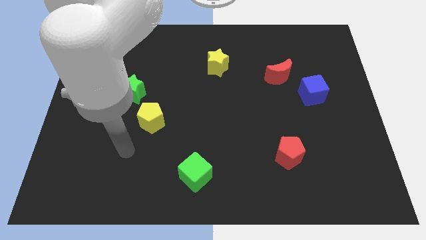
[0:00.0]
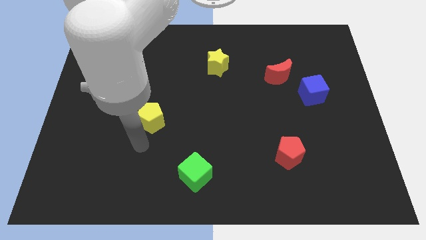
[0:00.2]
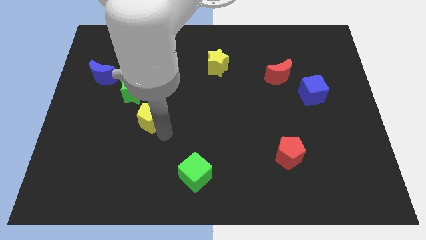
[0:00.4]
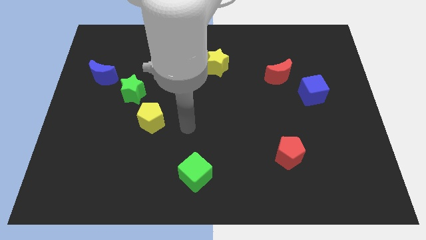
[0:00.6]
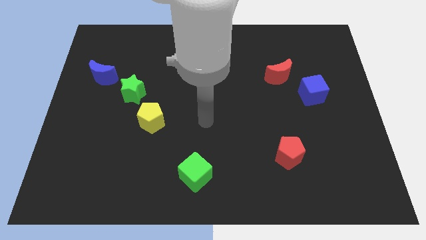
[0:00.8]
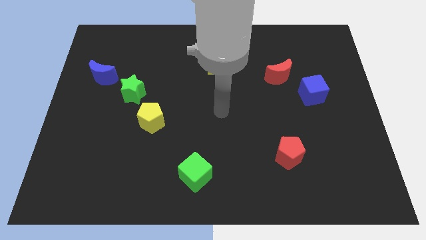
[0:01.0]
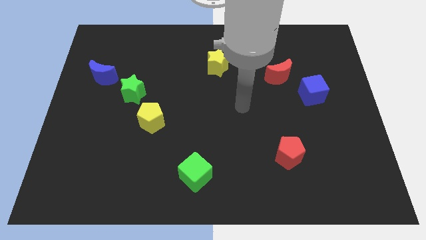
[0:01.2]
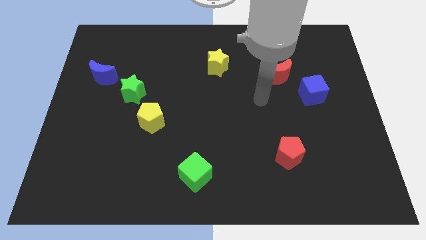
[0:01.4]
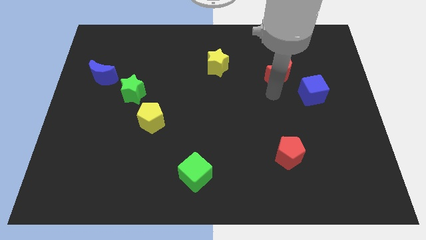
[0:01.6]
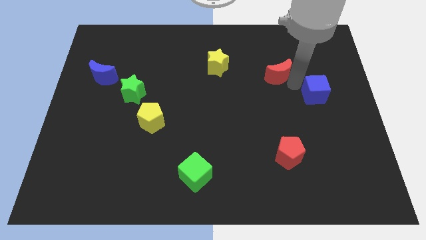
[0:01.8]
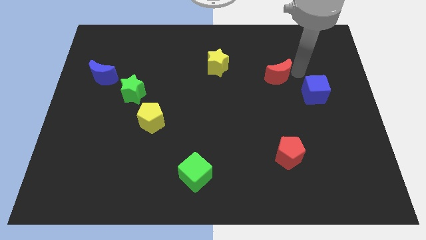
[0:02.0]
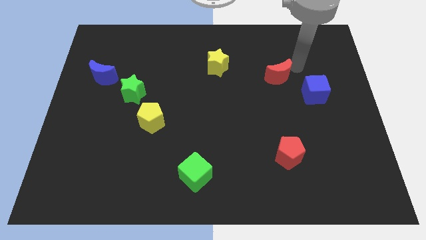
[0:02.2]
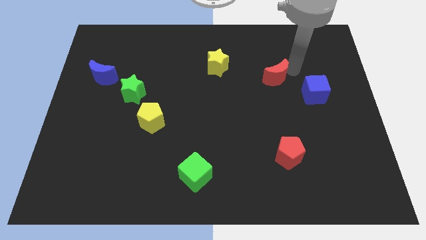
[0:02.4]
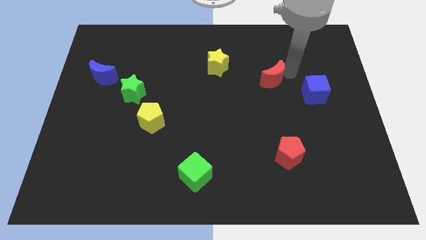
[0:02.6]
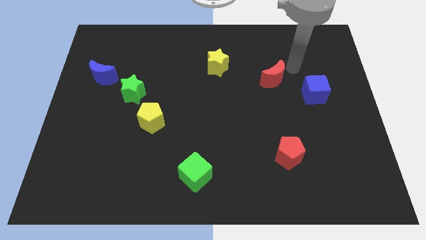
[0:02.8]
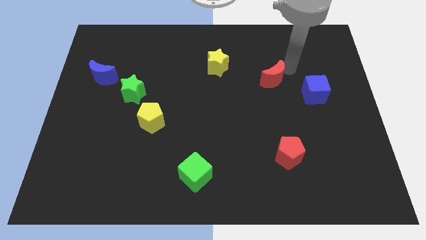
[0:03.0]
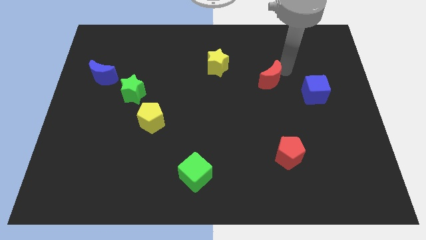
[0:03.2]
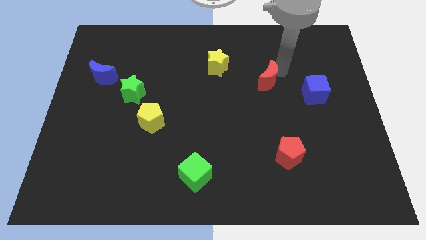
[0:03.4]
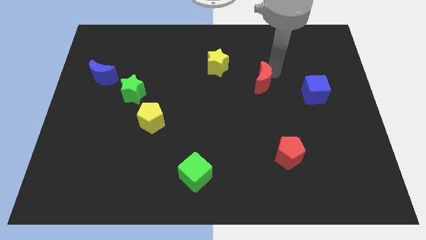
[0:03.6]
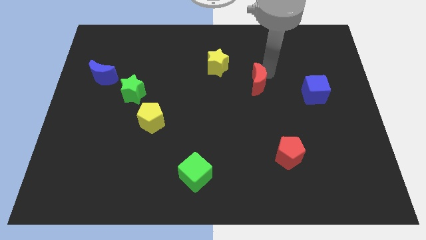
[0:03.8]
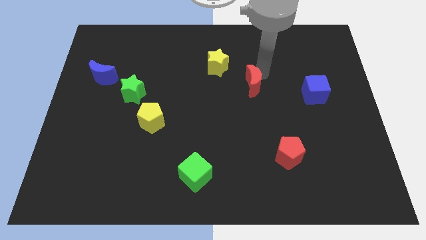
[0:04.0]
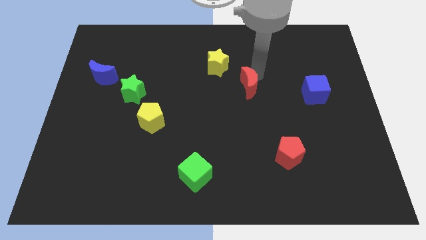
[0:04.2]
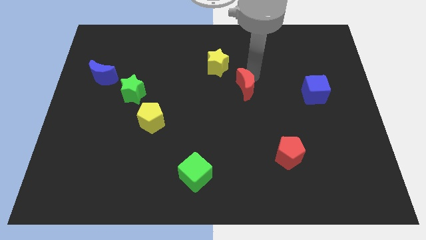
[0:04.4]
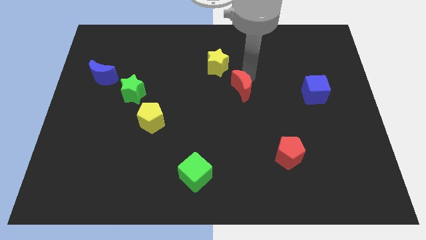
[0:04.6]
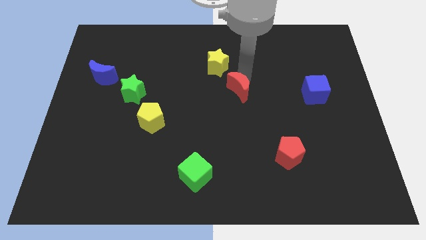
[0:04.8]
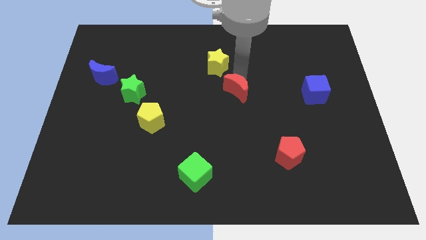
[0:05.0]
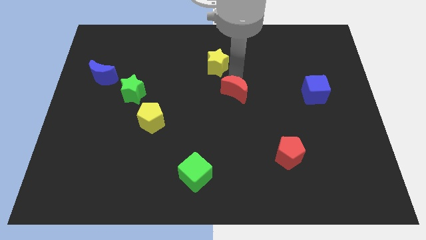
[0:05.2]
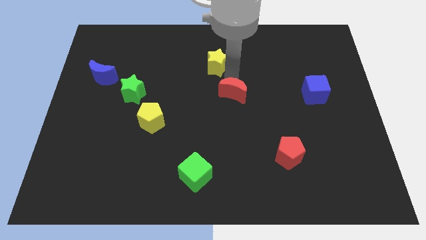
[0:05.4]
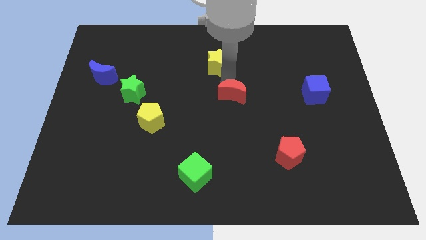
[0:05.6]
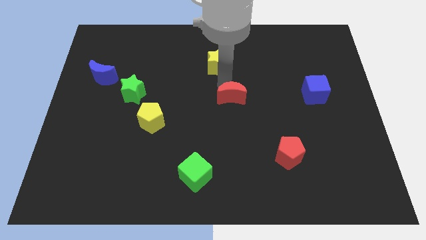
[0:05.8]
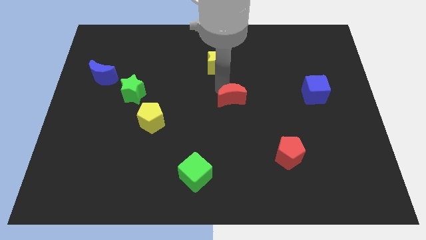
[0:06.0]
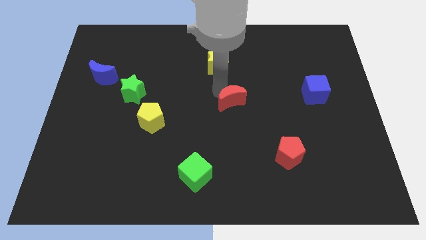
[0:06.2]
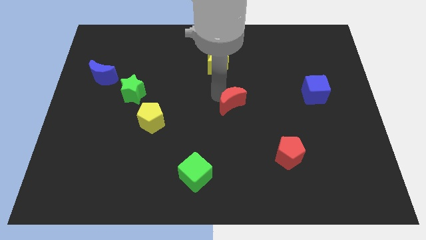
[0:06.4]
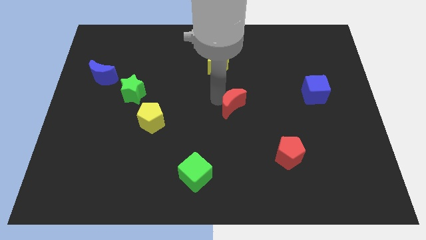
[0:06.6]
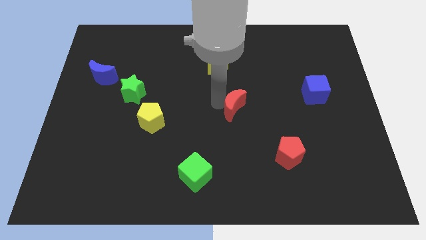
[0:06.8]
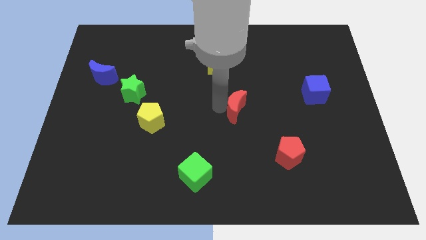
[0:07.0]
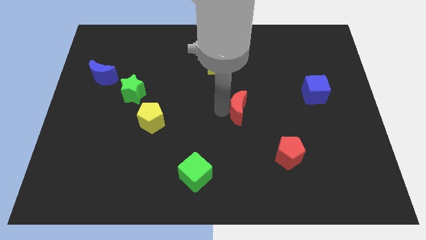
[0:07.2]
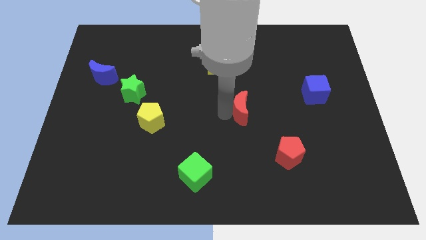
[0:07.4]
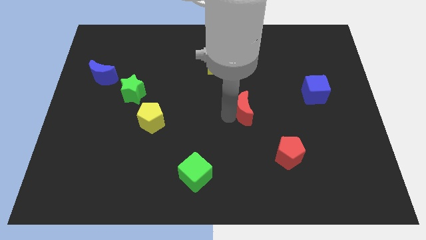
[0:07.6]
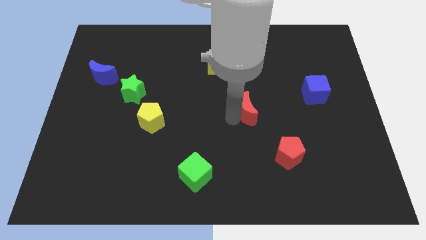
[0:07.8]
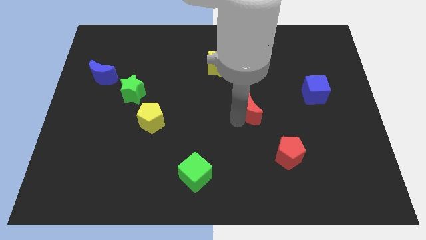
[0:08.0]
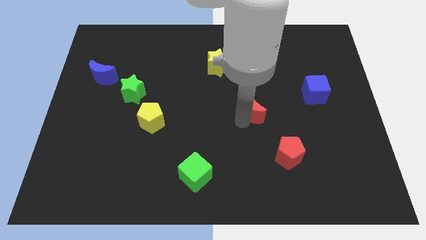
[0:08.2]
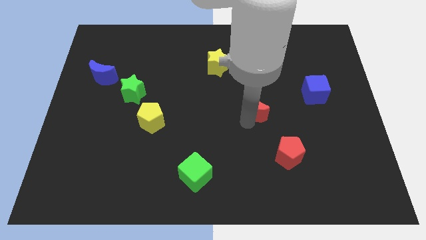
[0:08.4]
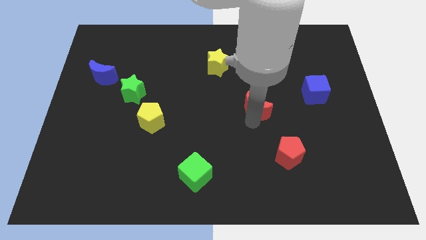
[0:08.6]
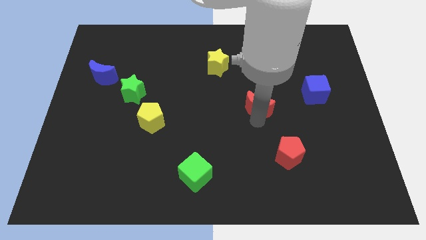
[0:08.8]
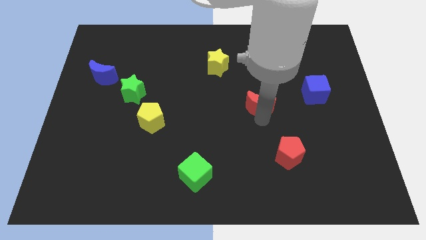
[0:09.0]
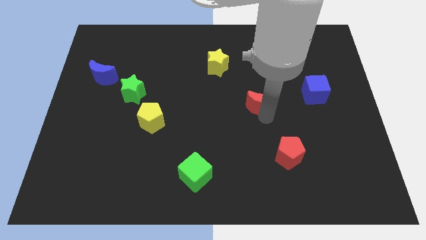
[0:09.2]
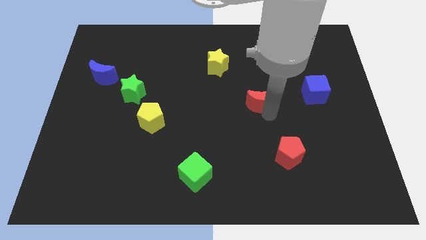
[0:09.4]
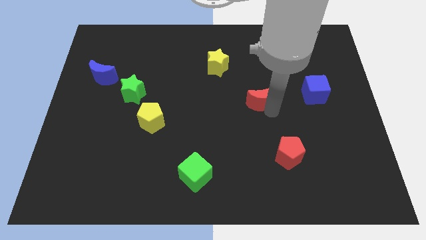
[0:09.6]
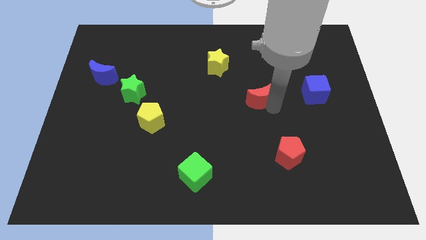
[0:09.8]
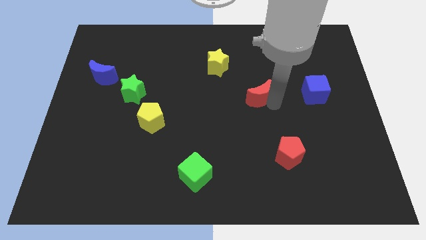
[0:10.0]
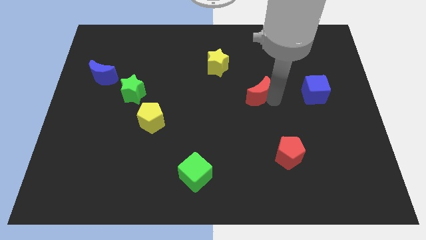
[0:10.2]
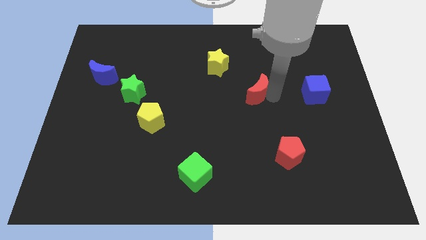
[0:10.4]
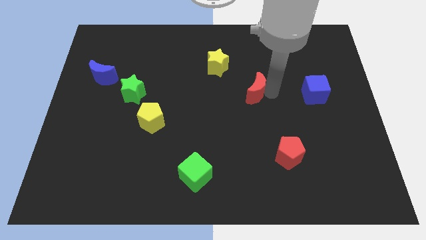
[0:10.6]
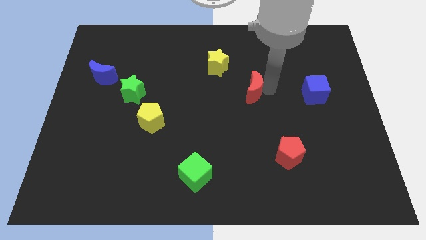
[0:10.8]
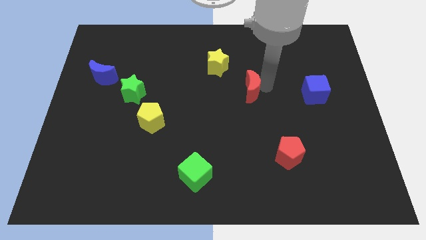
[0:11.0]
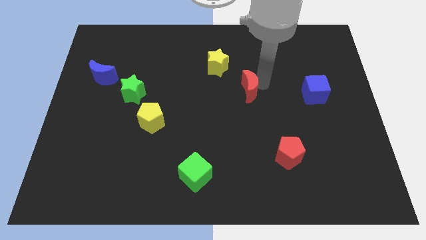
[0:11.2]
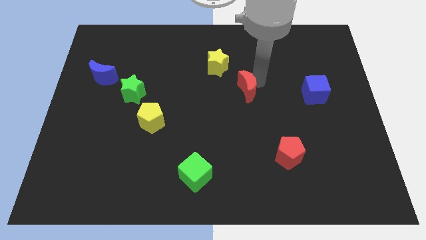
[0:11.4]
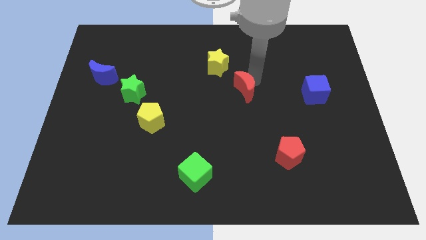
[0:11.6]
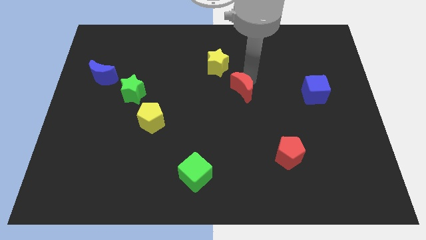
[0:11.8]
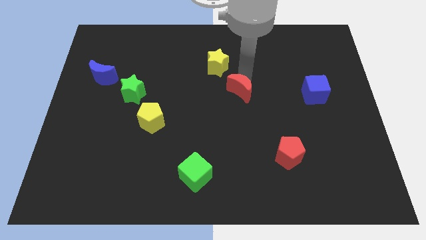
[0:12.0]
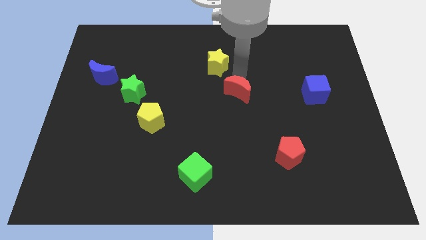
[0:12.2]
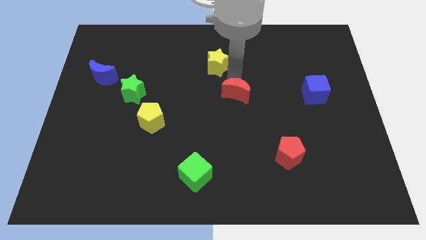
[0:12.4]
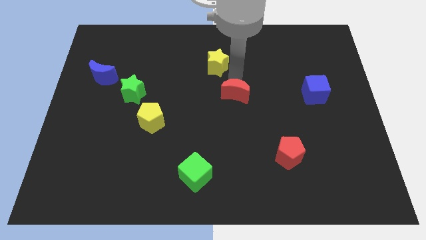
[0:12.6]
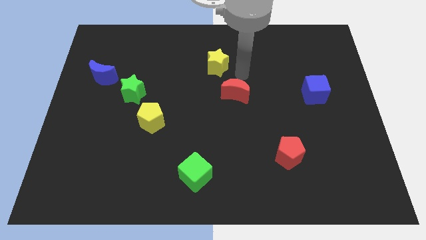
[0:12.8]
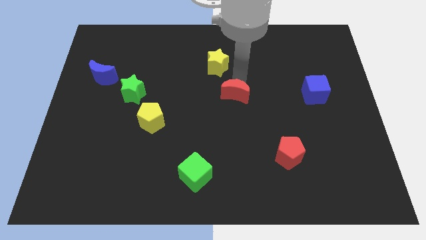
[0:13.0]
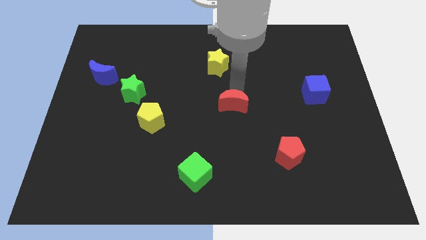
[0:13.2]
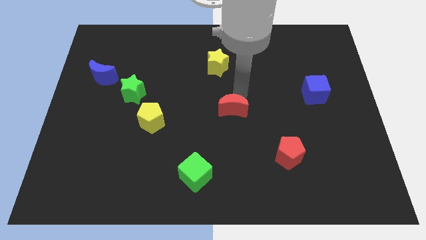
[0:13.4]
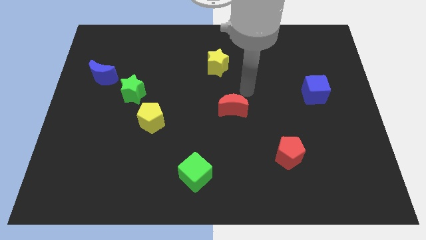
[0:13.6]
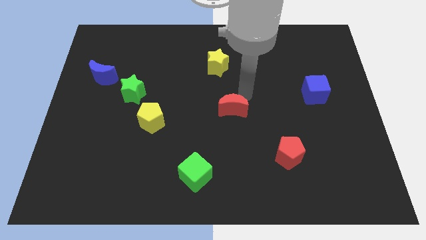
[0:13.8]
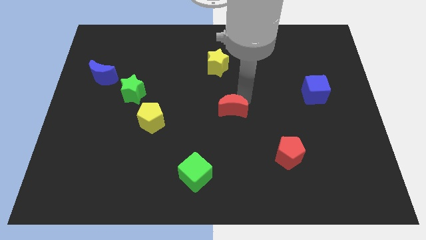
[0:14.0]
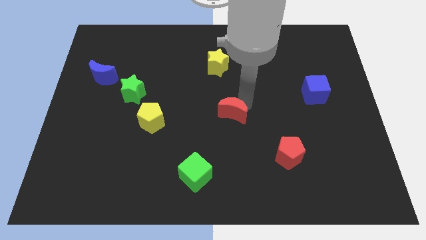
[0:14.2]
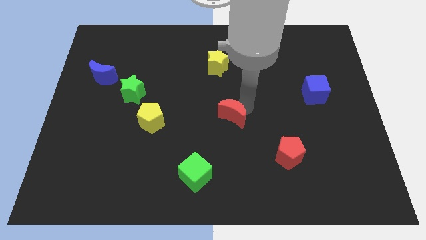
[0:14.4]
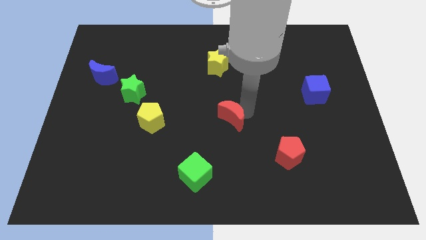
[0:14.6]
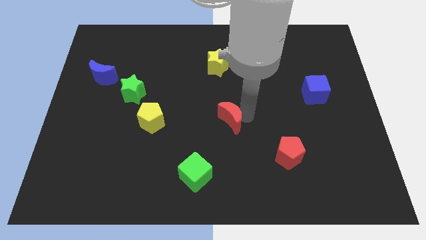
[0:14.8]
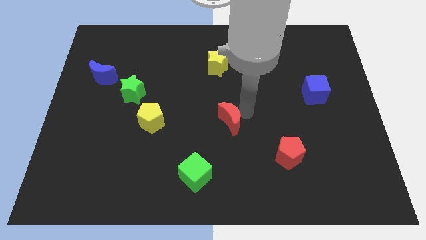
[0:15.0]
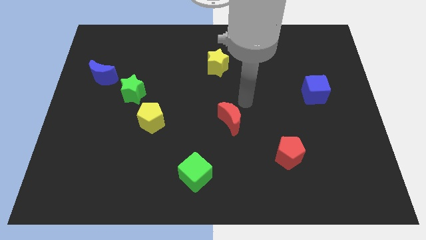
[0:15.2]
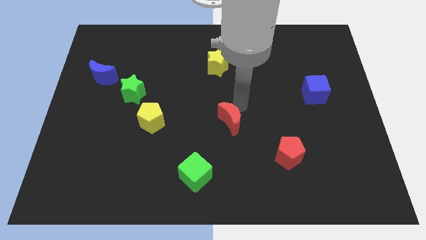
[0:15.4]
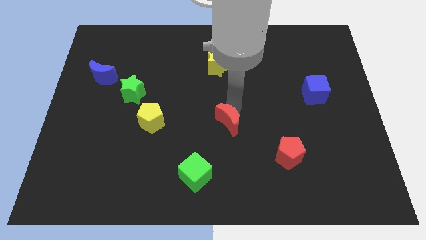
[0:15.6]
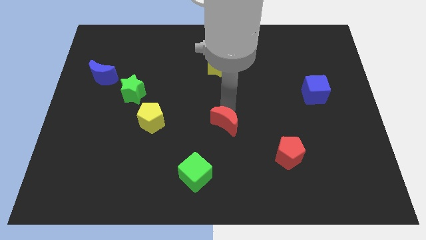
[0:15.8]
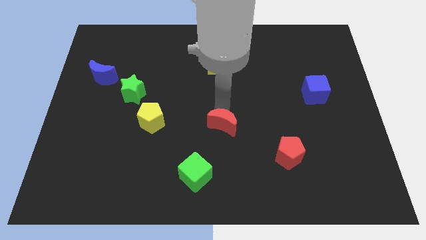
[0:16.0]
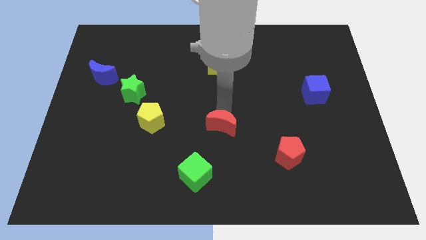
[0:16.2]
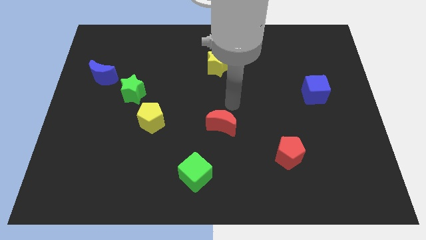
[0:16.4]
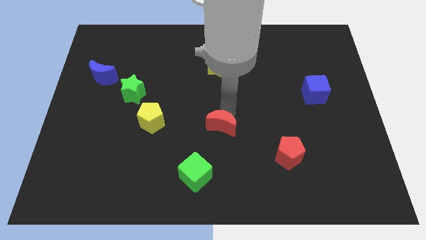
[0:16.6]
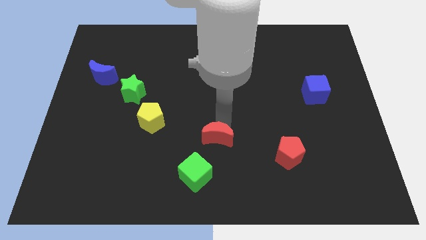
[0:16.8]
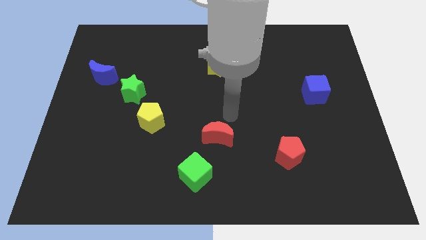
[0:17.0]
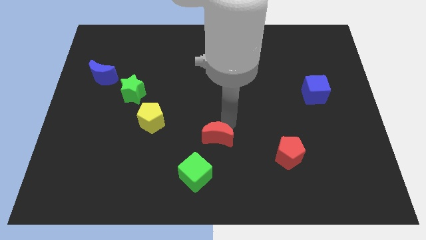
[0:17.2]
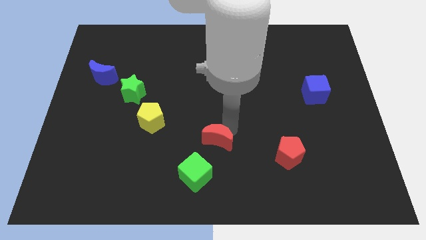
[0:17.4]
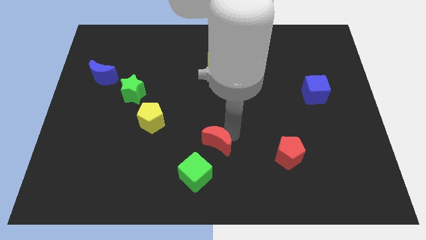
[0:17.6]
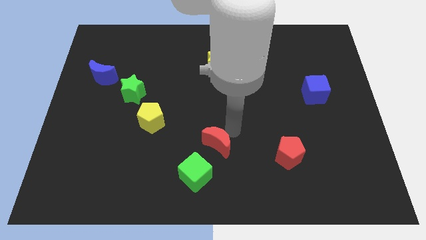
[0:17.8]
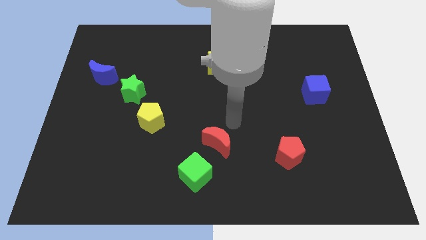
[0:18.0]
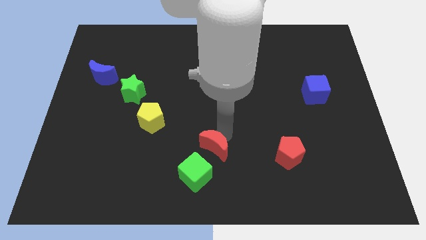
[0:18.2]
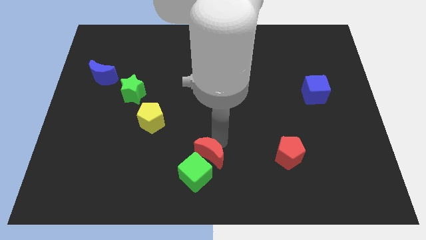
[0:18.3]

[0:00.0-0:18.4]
put the red moon close to the green cube
